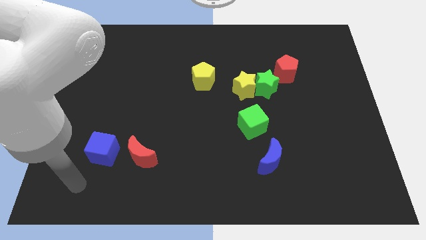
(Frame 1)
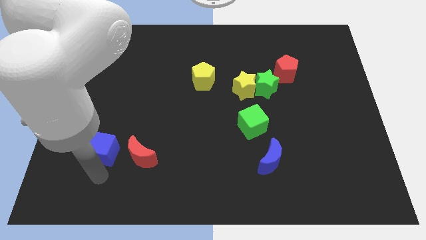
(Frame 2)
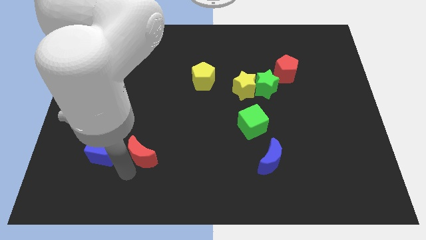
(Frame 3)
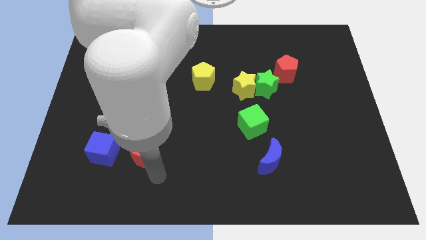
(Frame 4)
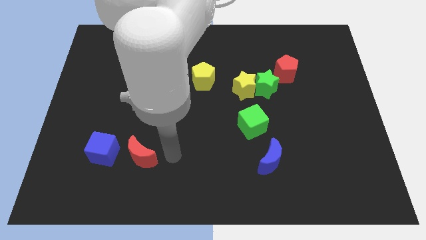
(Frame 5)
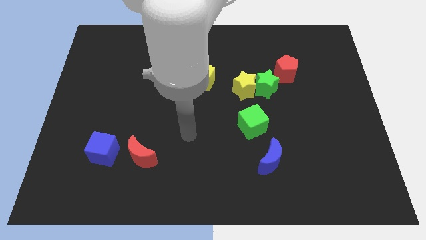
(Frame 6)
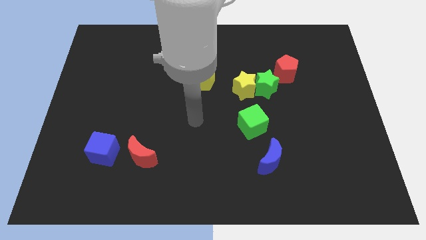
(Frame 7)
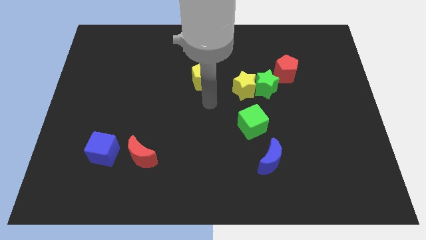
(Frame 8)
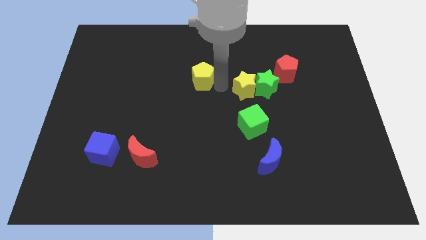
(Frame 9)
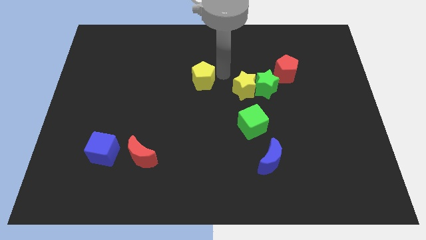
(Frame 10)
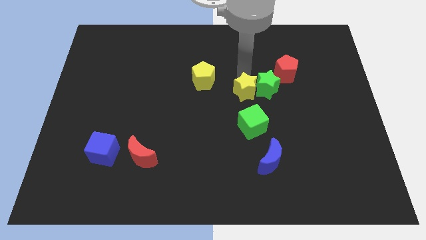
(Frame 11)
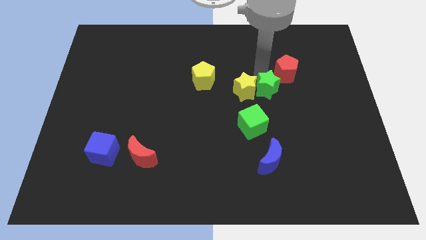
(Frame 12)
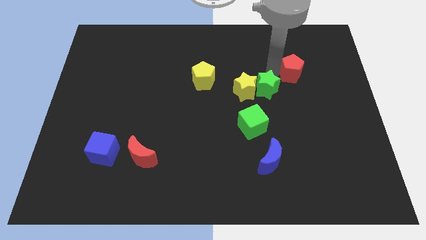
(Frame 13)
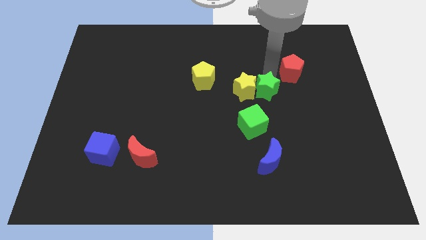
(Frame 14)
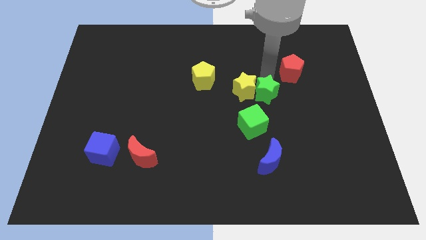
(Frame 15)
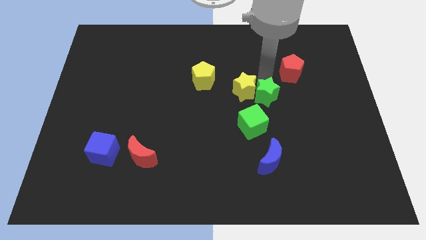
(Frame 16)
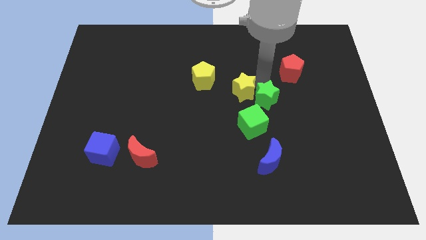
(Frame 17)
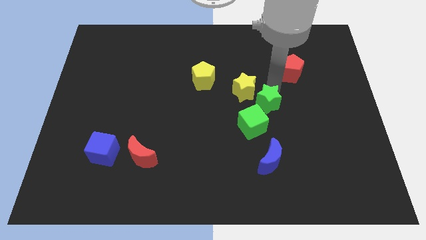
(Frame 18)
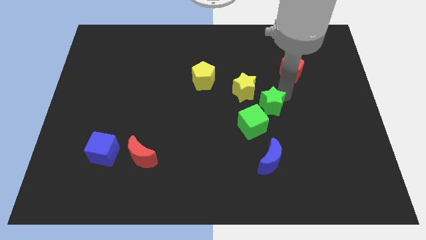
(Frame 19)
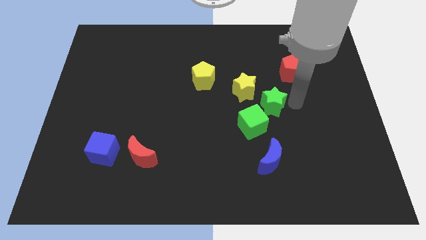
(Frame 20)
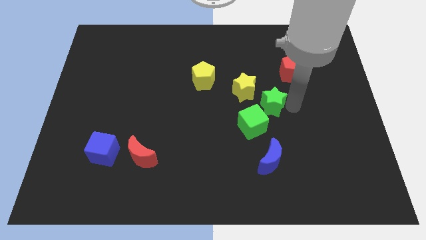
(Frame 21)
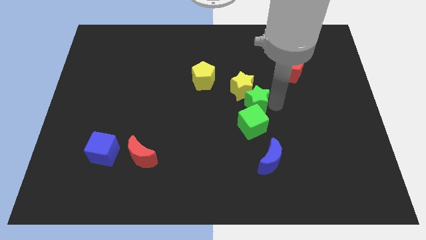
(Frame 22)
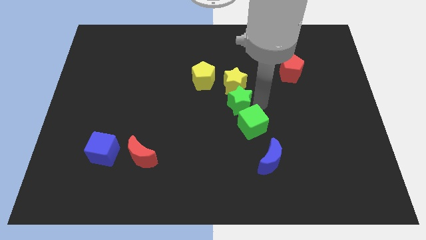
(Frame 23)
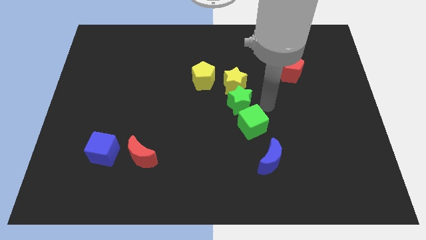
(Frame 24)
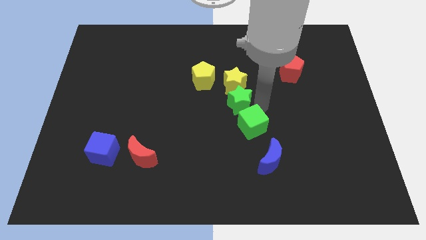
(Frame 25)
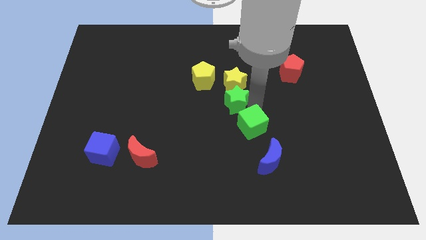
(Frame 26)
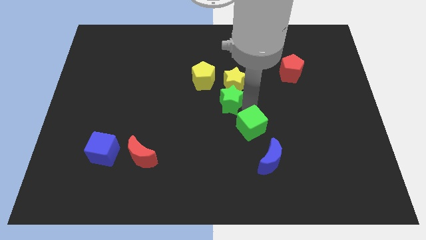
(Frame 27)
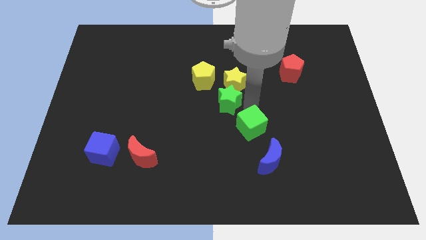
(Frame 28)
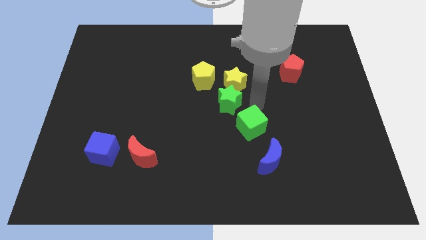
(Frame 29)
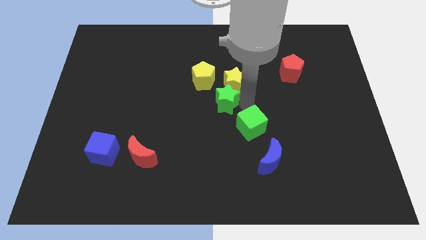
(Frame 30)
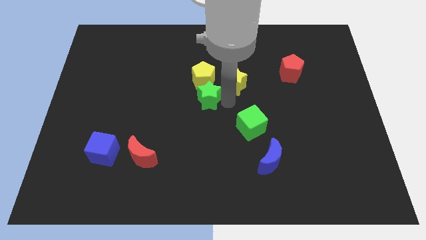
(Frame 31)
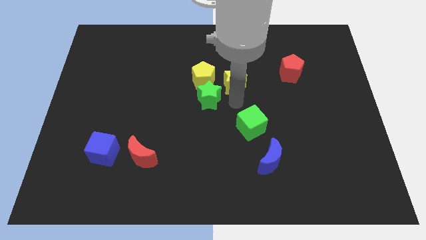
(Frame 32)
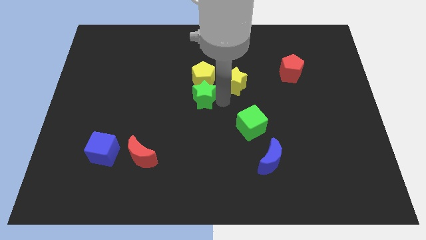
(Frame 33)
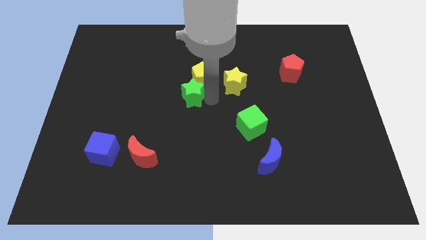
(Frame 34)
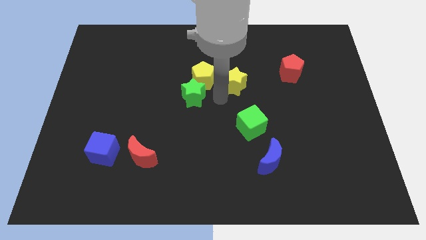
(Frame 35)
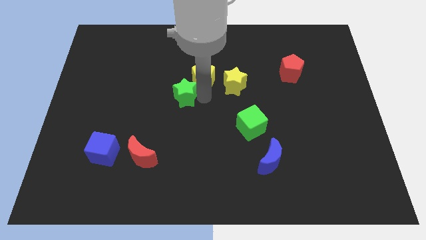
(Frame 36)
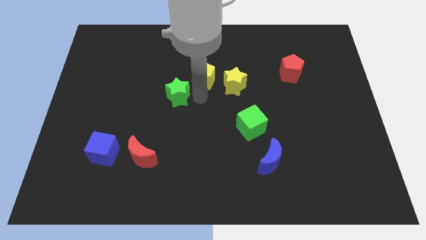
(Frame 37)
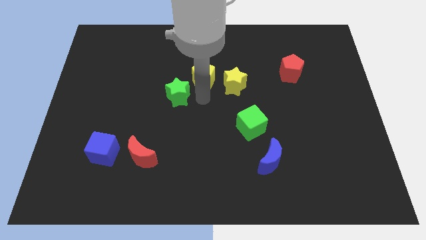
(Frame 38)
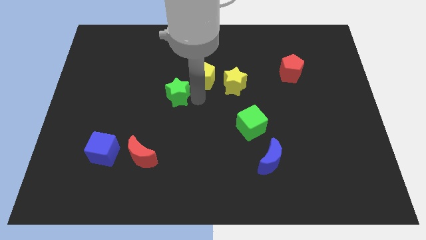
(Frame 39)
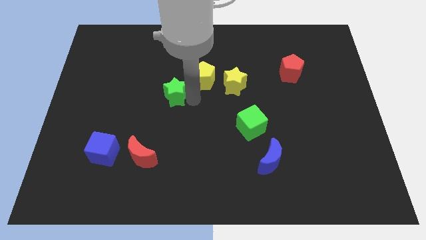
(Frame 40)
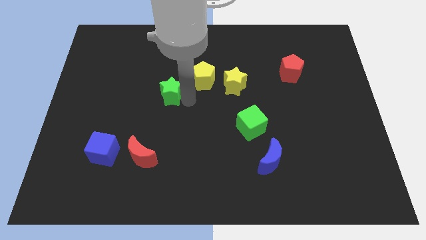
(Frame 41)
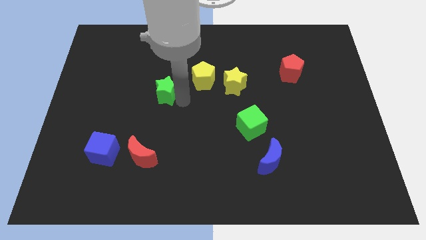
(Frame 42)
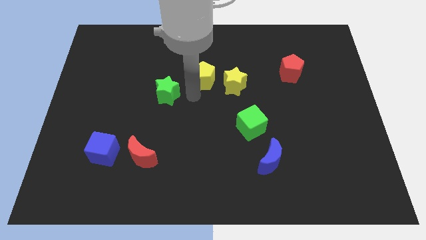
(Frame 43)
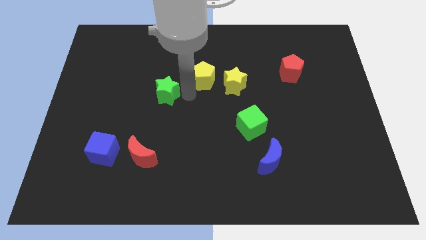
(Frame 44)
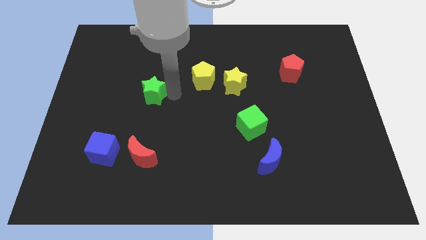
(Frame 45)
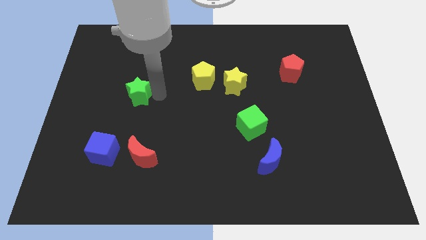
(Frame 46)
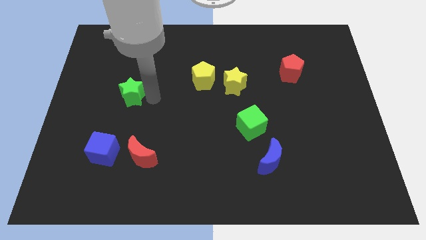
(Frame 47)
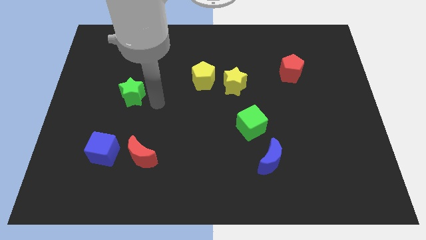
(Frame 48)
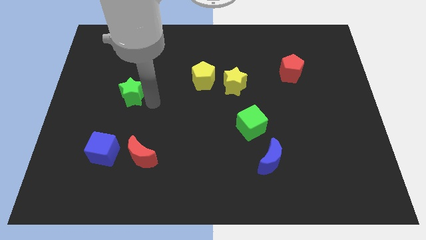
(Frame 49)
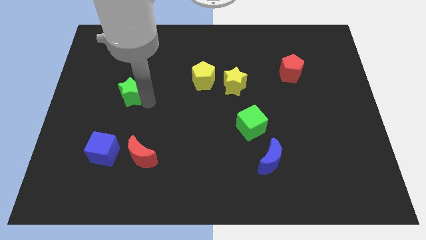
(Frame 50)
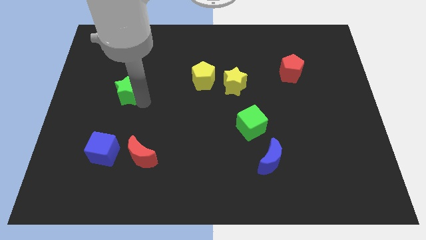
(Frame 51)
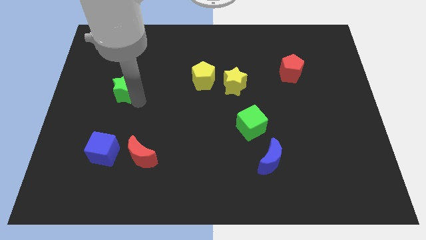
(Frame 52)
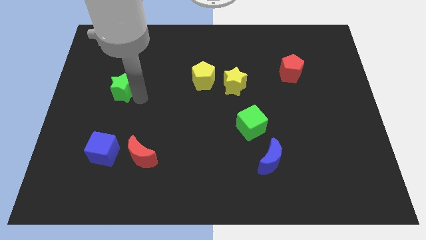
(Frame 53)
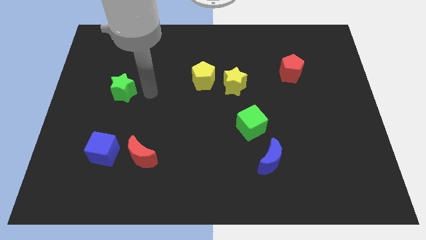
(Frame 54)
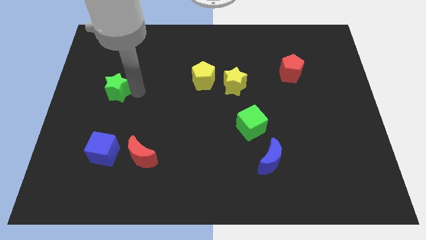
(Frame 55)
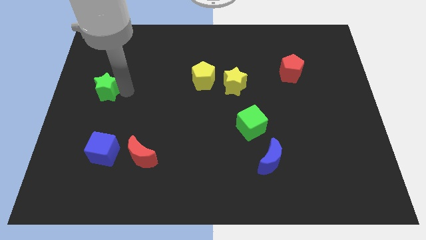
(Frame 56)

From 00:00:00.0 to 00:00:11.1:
slide the green star to the center left

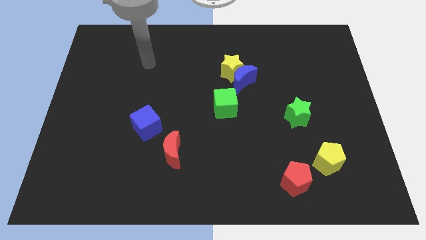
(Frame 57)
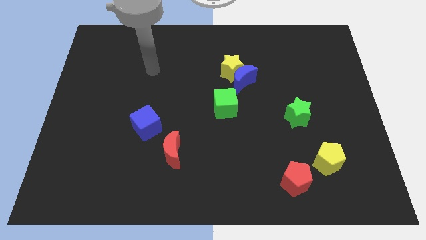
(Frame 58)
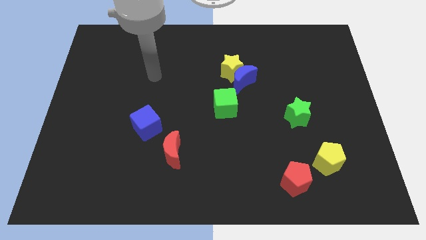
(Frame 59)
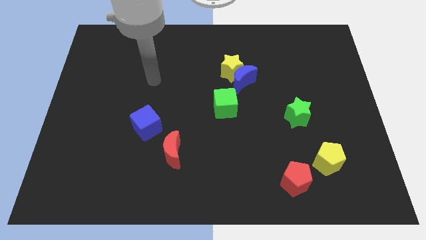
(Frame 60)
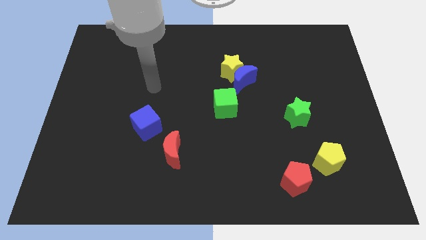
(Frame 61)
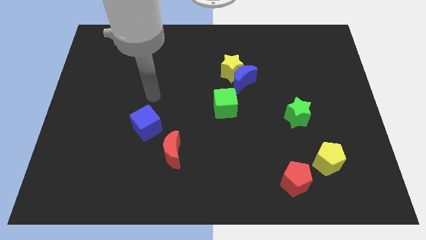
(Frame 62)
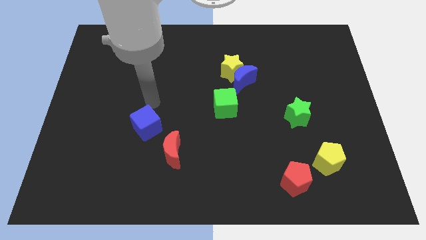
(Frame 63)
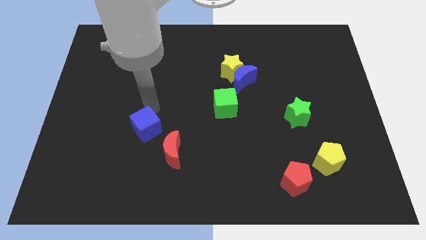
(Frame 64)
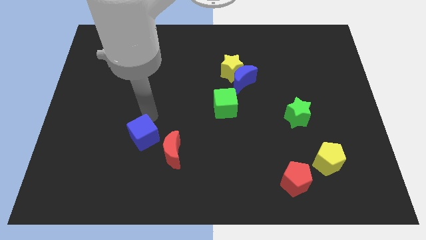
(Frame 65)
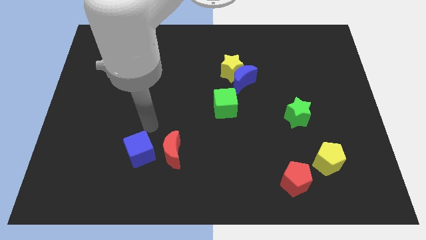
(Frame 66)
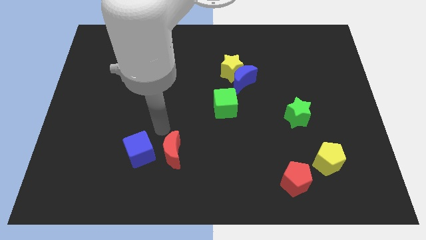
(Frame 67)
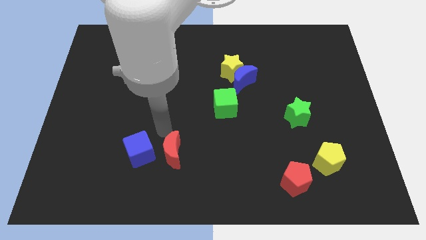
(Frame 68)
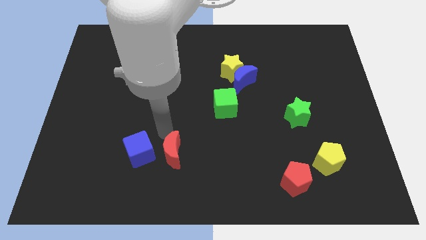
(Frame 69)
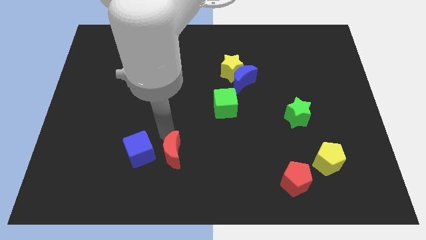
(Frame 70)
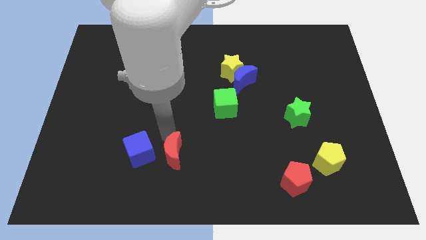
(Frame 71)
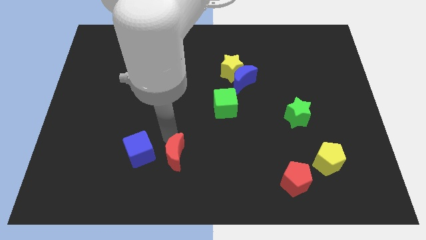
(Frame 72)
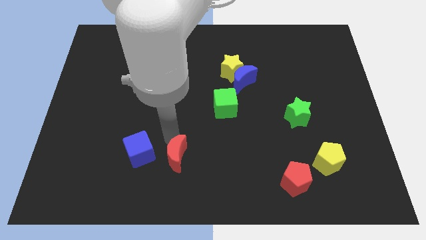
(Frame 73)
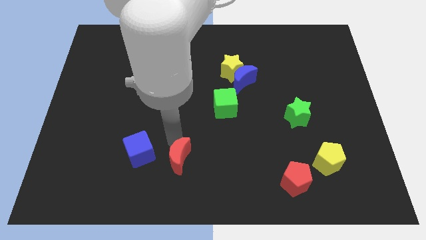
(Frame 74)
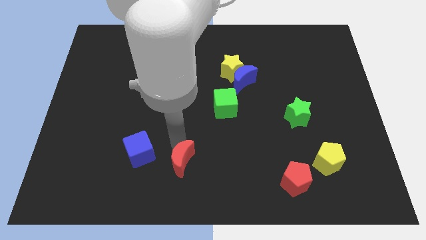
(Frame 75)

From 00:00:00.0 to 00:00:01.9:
push the red moon to the bottom
